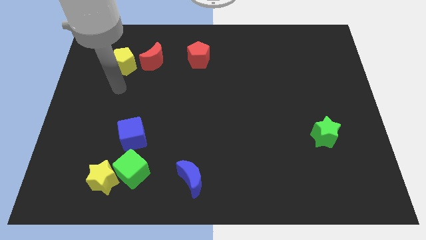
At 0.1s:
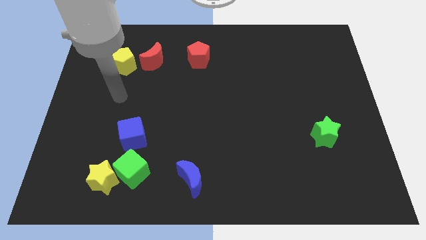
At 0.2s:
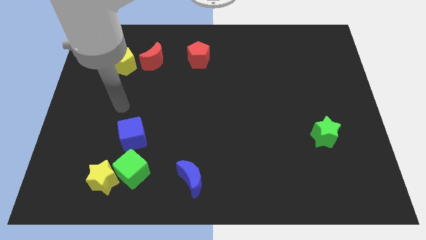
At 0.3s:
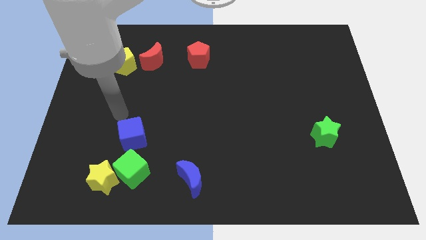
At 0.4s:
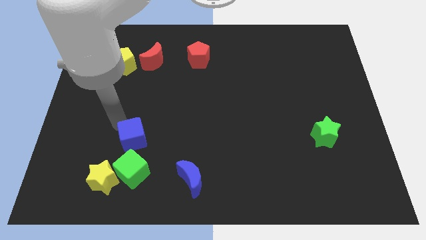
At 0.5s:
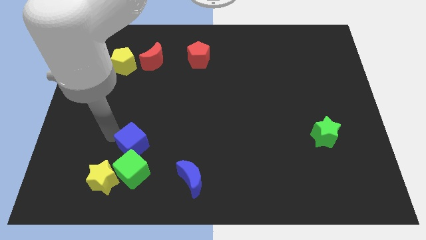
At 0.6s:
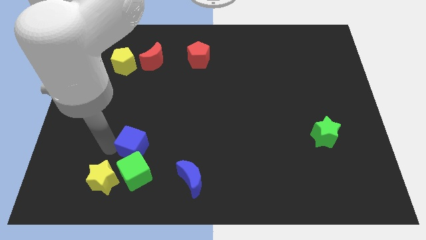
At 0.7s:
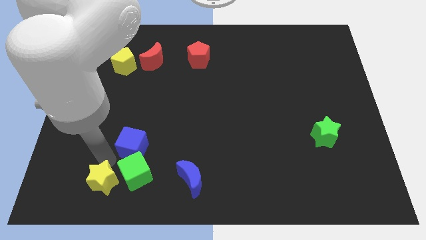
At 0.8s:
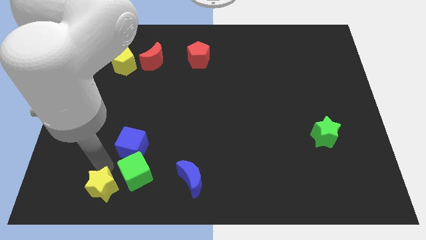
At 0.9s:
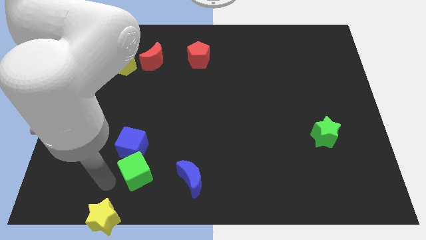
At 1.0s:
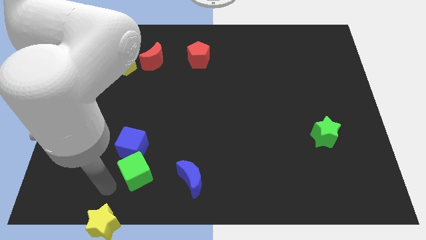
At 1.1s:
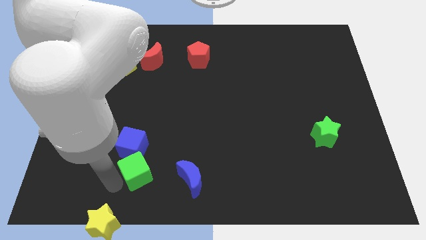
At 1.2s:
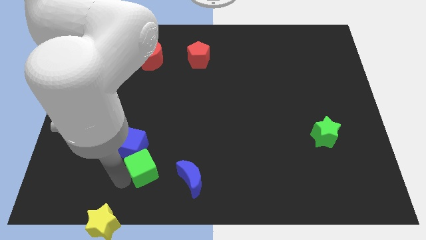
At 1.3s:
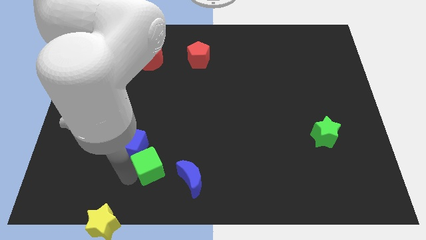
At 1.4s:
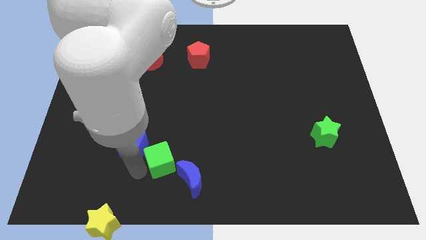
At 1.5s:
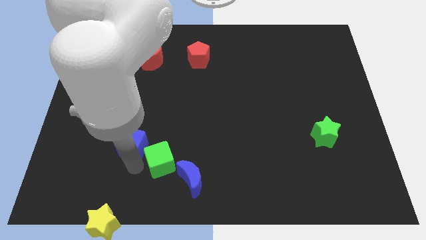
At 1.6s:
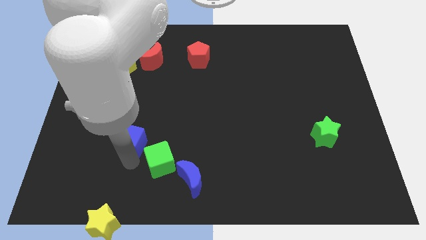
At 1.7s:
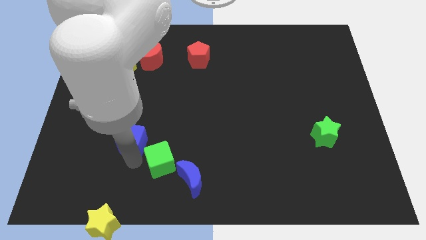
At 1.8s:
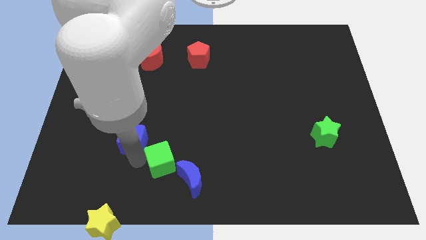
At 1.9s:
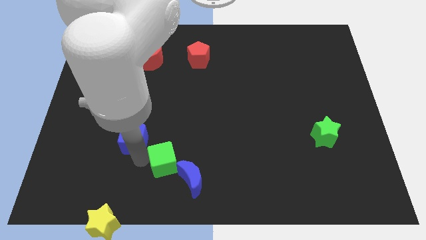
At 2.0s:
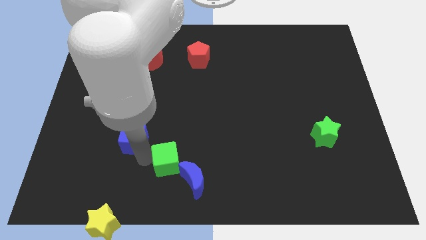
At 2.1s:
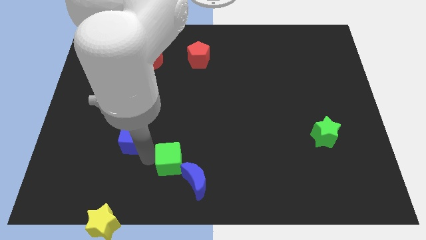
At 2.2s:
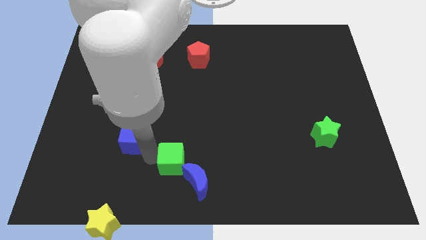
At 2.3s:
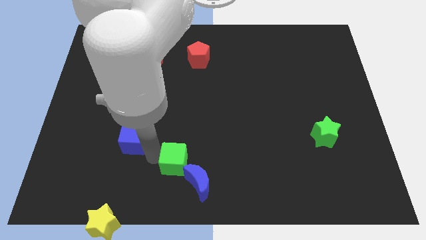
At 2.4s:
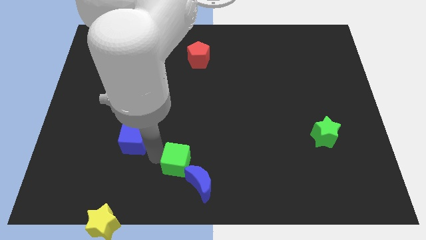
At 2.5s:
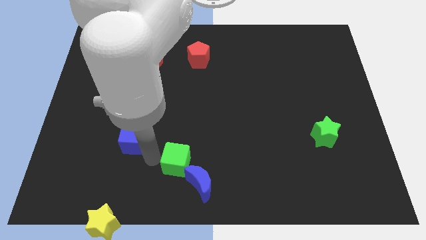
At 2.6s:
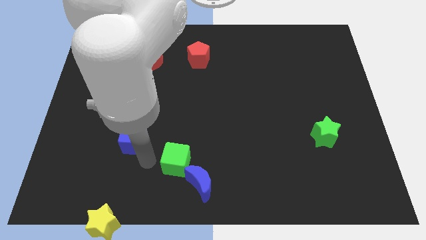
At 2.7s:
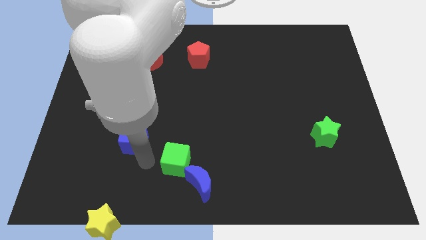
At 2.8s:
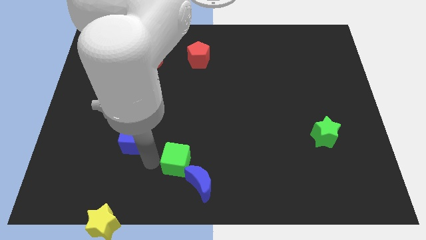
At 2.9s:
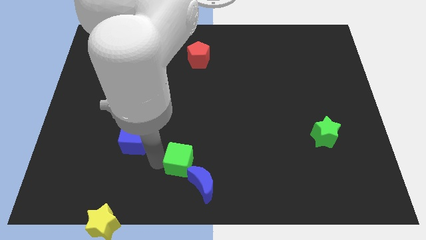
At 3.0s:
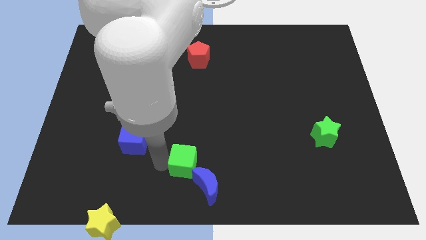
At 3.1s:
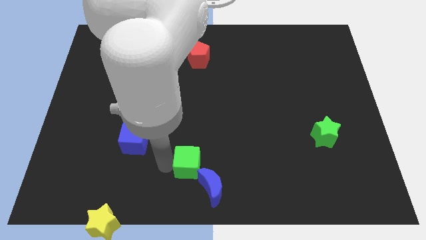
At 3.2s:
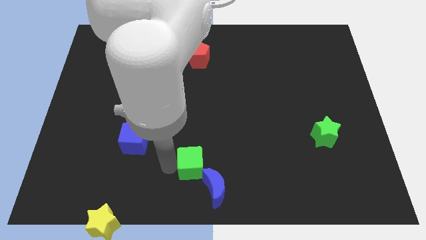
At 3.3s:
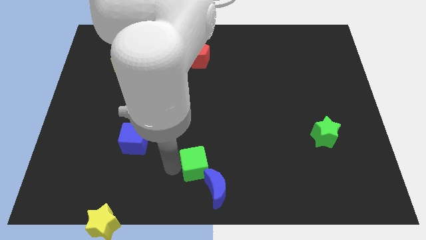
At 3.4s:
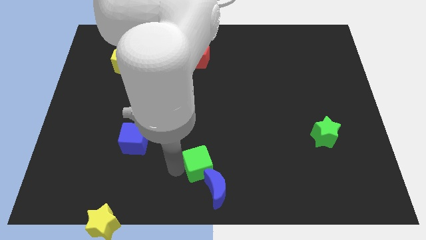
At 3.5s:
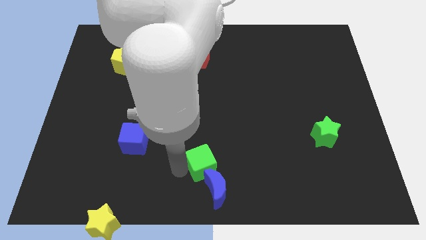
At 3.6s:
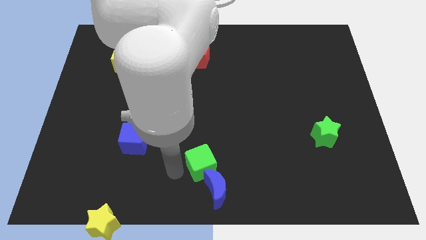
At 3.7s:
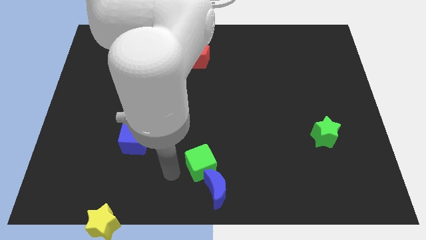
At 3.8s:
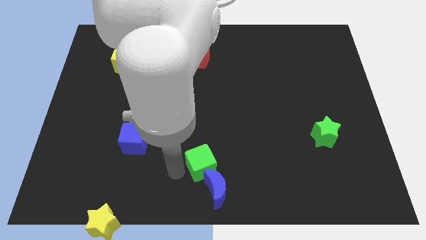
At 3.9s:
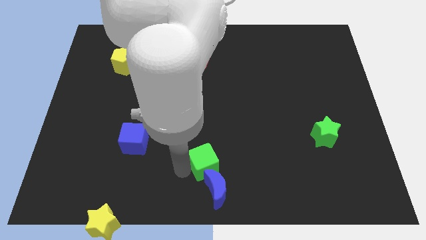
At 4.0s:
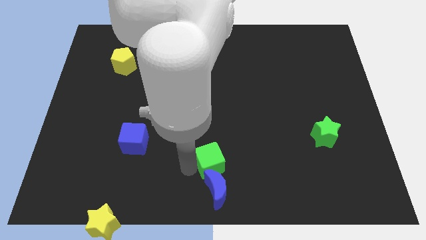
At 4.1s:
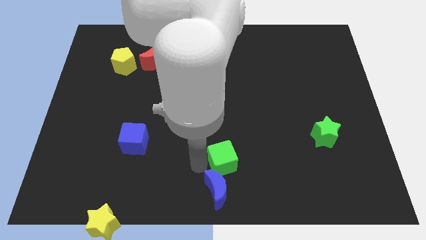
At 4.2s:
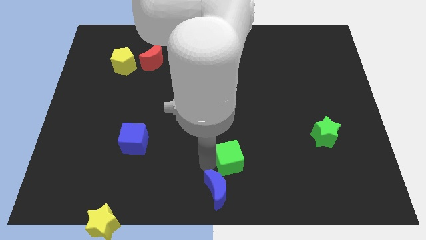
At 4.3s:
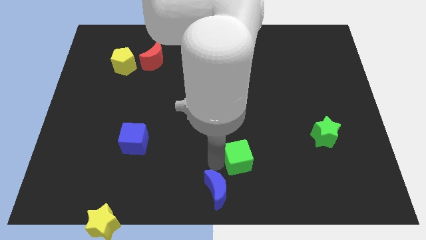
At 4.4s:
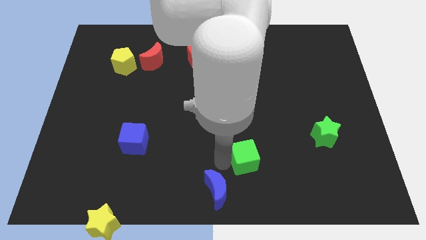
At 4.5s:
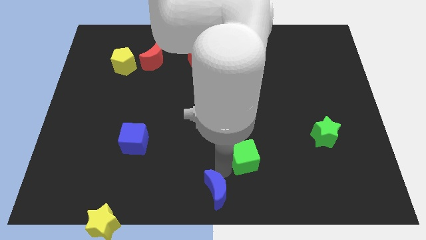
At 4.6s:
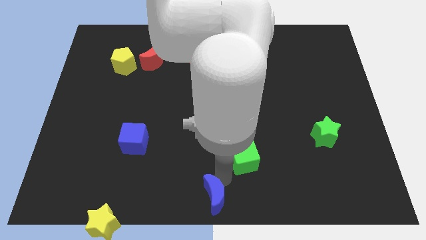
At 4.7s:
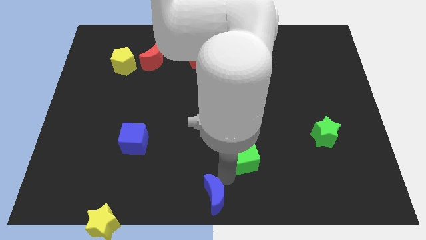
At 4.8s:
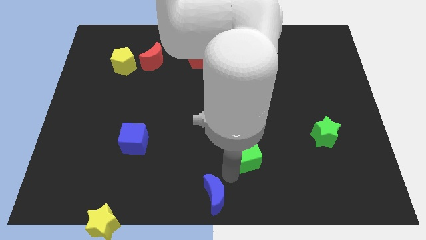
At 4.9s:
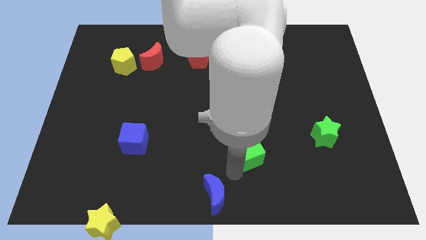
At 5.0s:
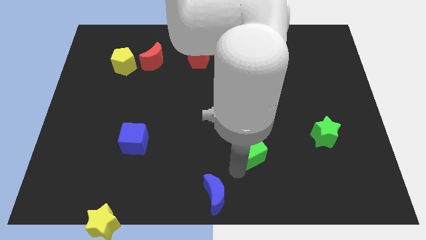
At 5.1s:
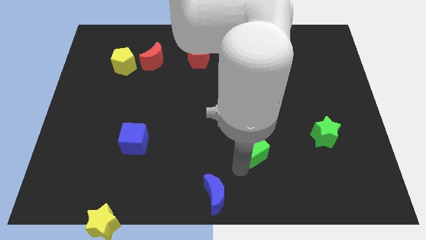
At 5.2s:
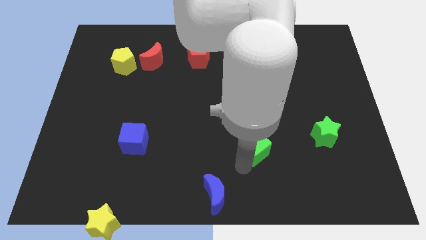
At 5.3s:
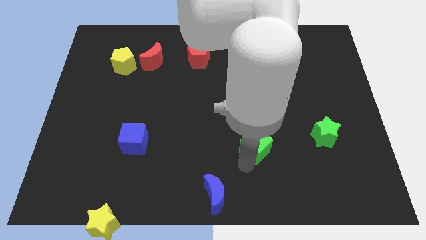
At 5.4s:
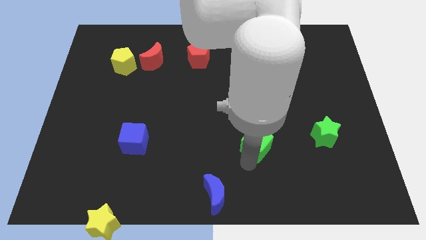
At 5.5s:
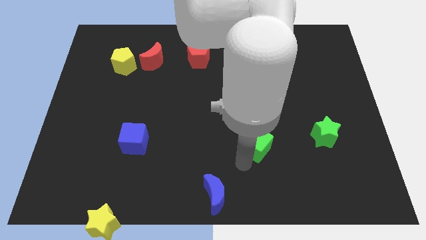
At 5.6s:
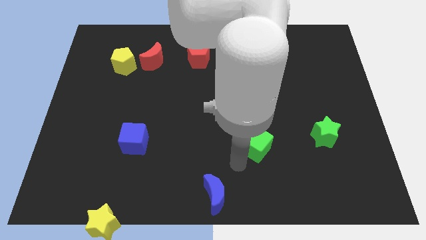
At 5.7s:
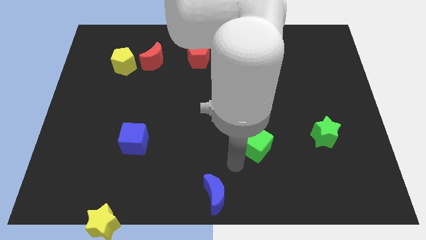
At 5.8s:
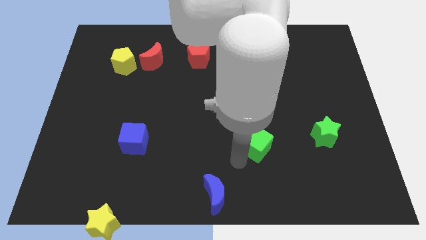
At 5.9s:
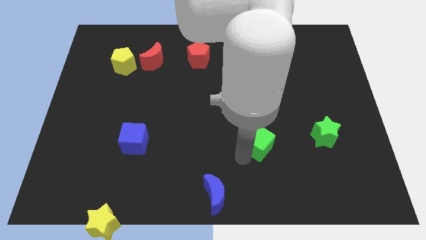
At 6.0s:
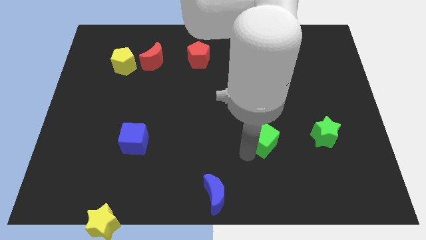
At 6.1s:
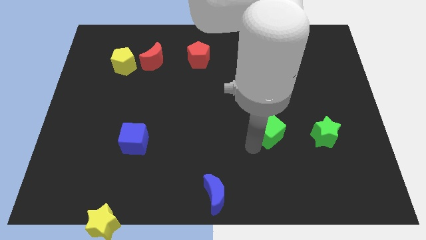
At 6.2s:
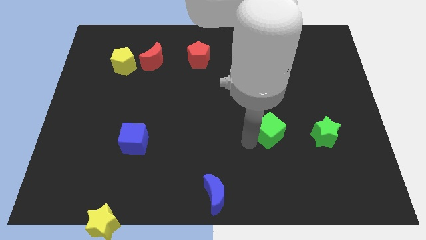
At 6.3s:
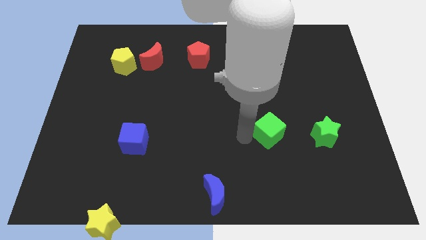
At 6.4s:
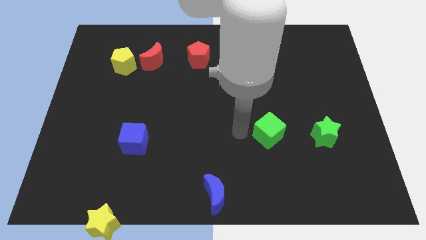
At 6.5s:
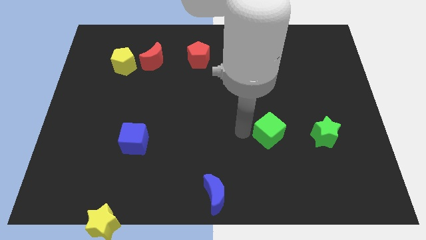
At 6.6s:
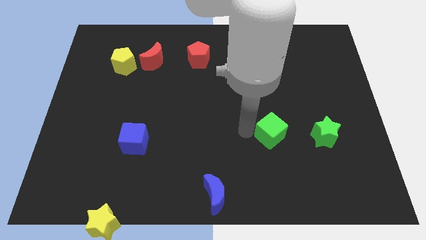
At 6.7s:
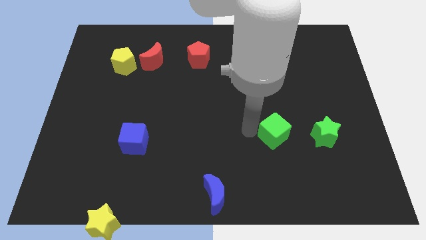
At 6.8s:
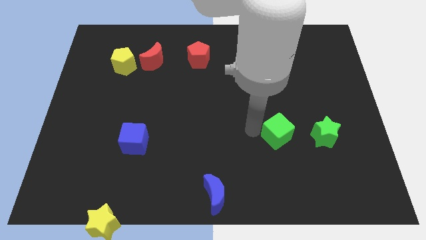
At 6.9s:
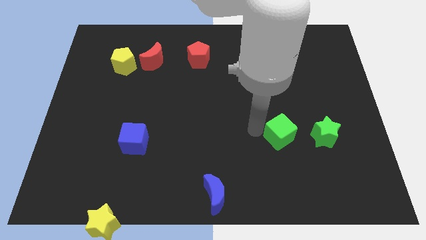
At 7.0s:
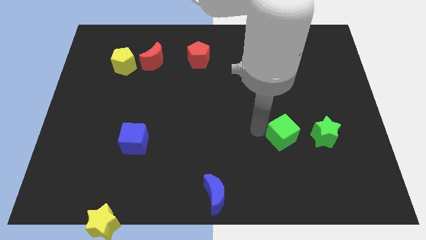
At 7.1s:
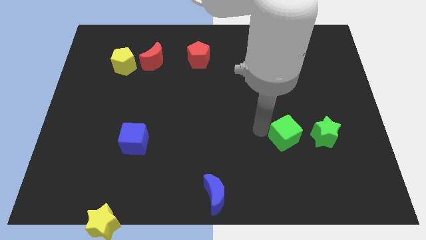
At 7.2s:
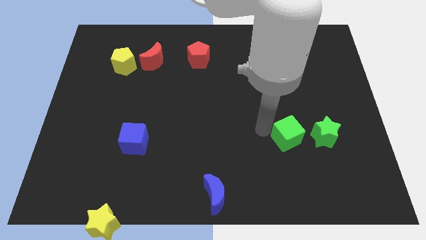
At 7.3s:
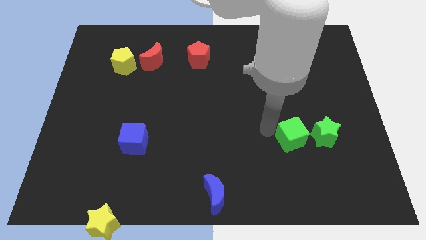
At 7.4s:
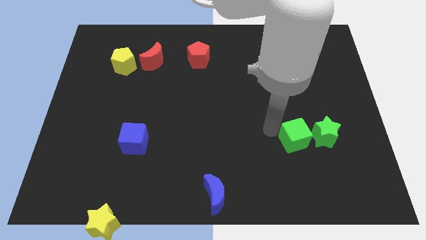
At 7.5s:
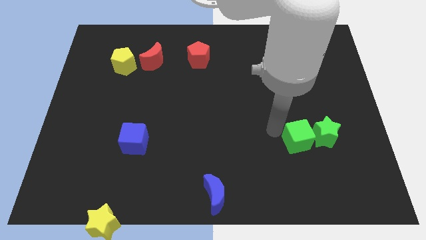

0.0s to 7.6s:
push the green cube towards the green star
